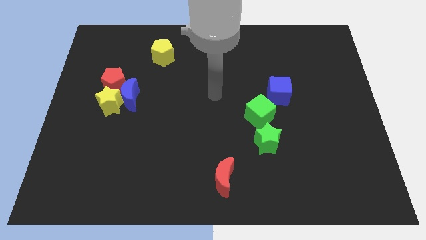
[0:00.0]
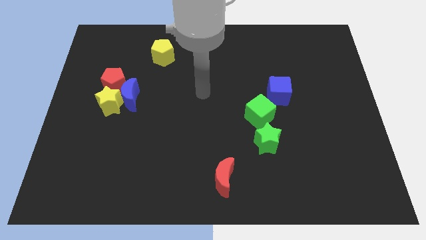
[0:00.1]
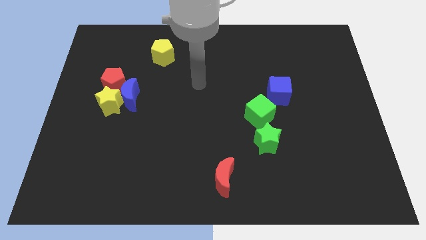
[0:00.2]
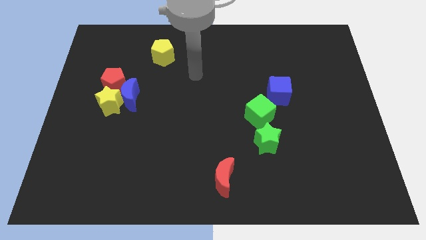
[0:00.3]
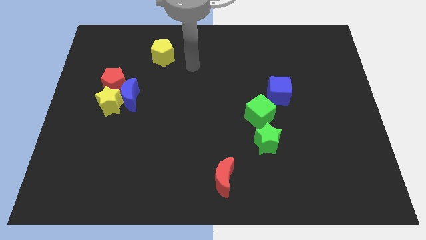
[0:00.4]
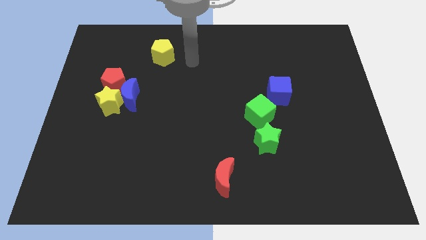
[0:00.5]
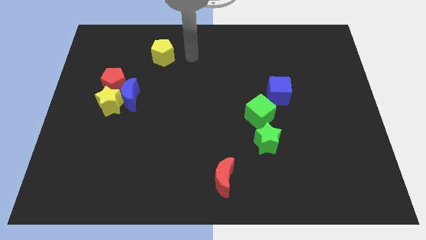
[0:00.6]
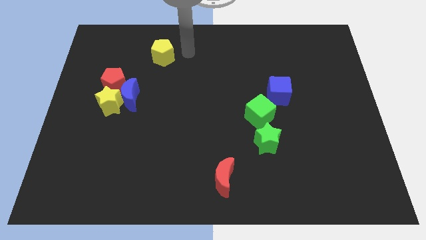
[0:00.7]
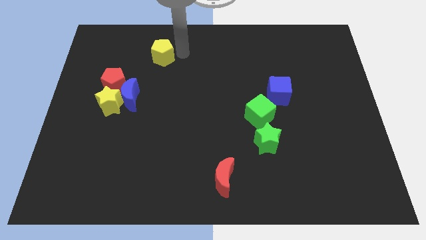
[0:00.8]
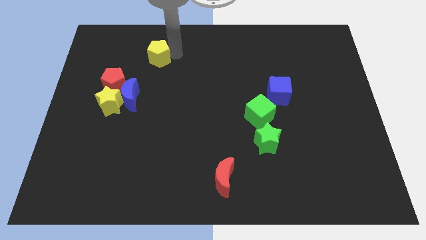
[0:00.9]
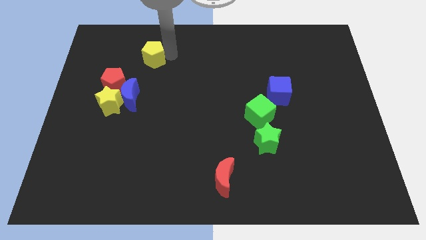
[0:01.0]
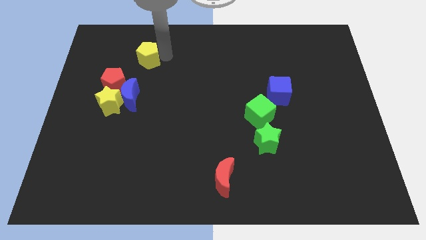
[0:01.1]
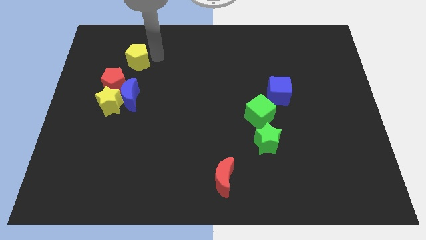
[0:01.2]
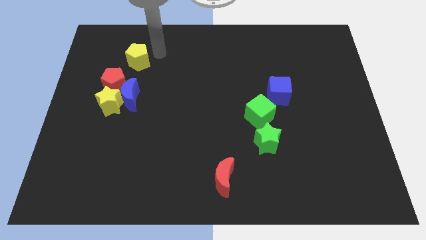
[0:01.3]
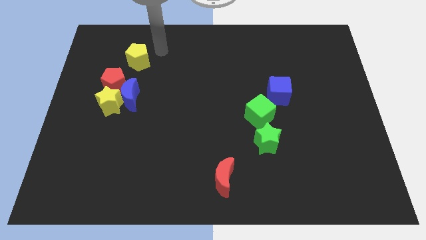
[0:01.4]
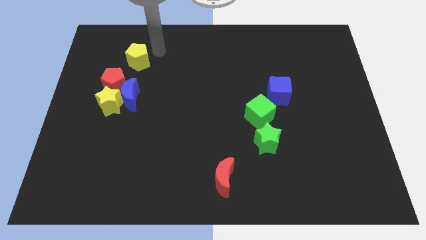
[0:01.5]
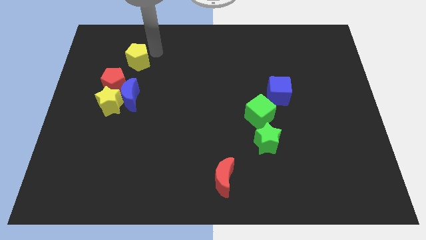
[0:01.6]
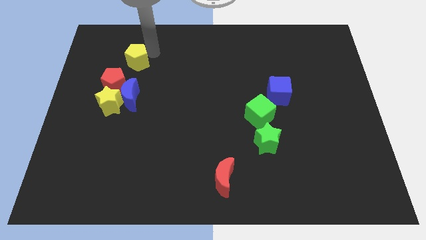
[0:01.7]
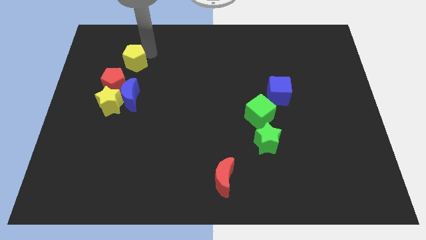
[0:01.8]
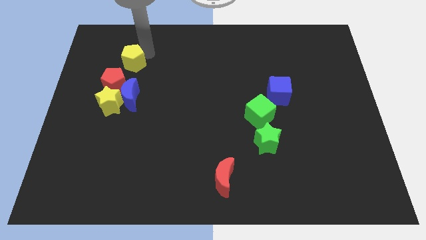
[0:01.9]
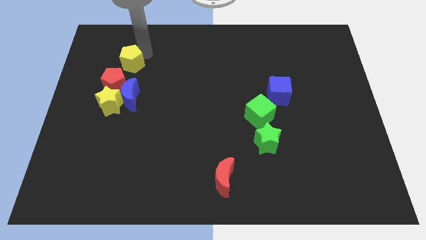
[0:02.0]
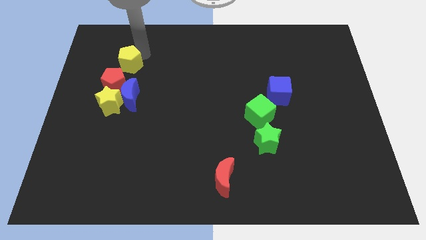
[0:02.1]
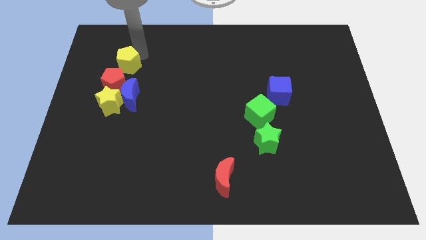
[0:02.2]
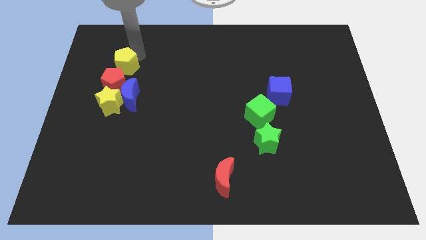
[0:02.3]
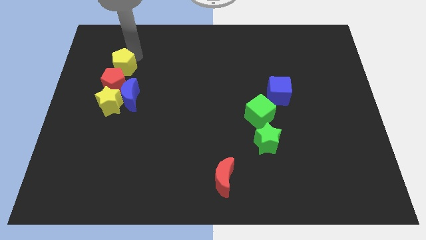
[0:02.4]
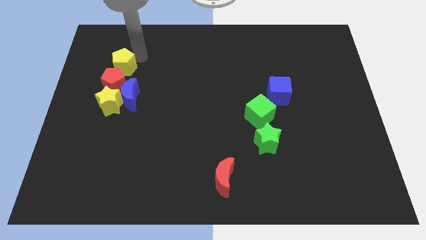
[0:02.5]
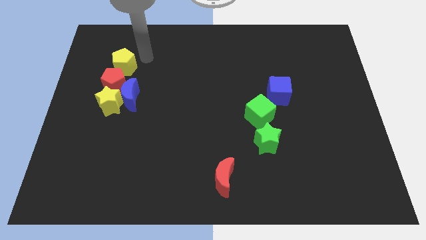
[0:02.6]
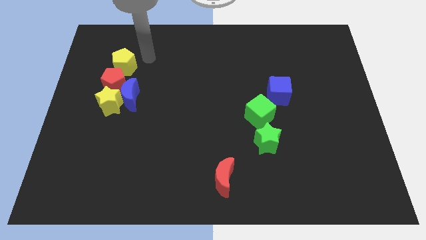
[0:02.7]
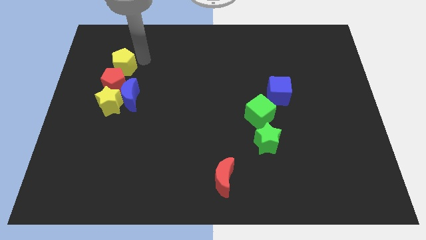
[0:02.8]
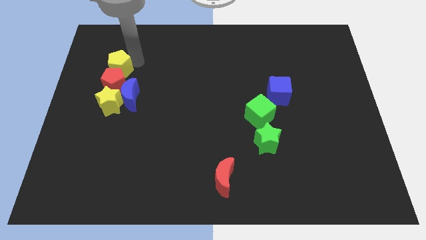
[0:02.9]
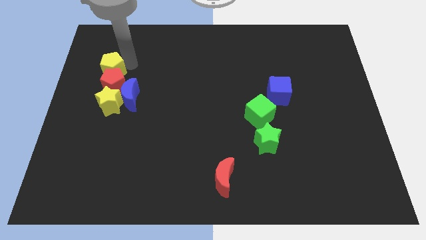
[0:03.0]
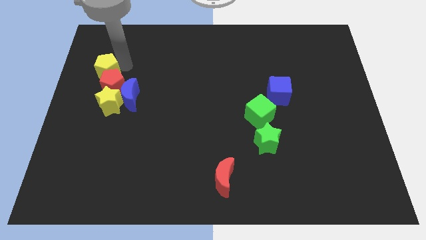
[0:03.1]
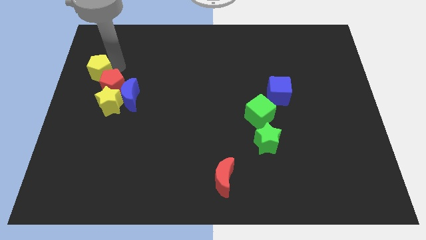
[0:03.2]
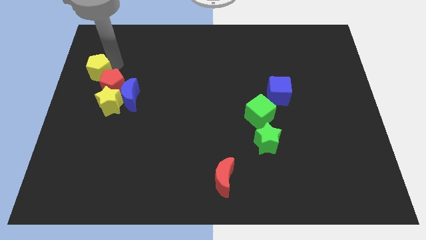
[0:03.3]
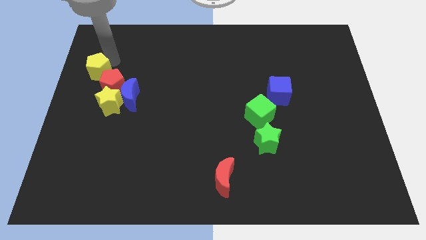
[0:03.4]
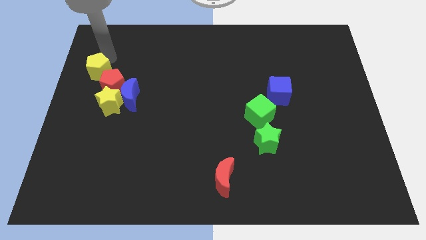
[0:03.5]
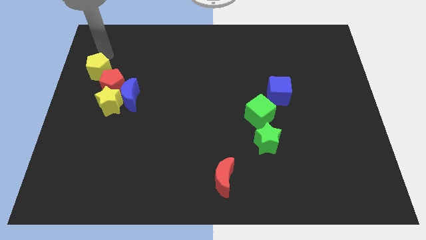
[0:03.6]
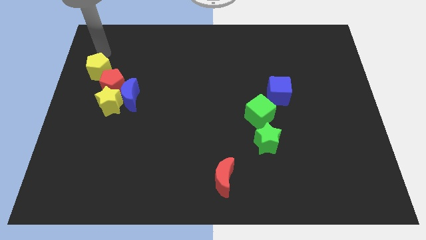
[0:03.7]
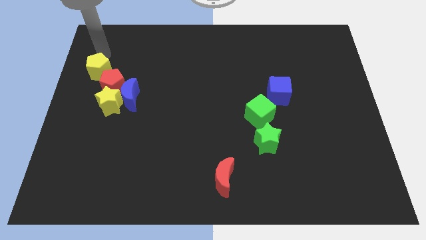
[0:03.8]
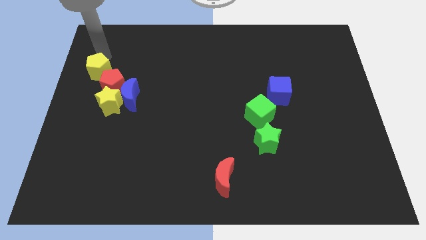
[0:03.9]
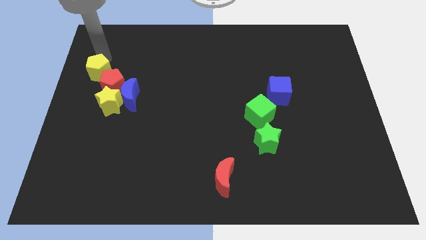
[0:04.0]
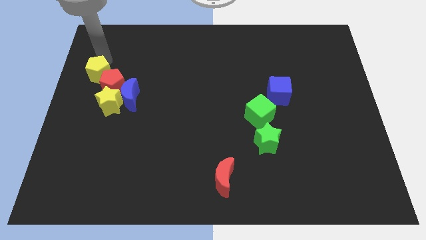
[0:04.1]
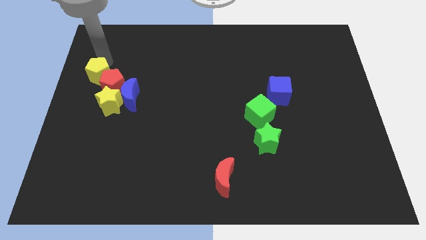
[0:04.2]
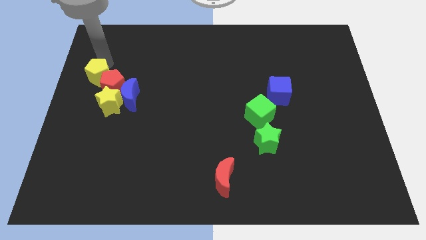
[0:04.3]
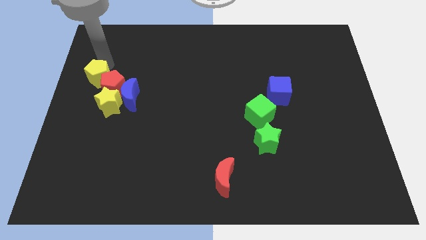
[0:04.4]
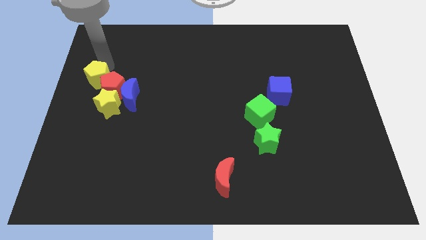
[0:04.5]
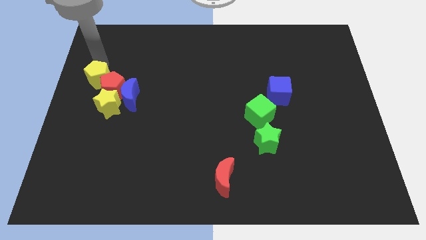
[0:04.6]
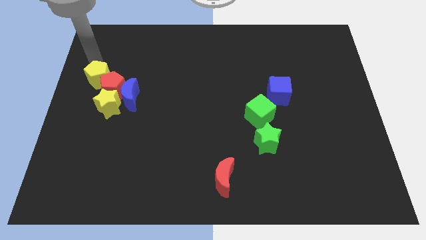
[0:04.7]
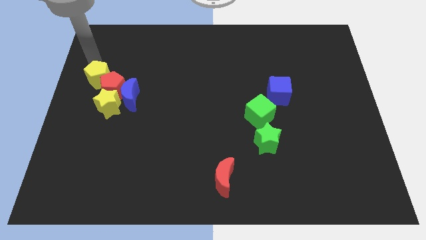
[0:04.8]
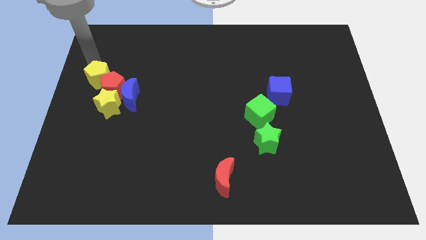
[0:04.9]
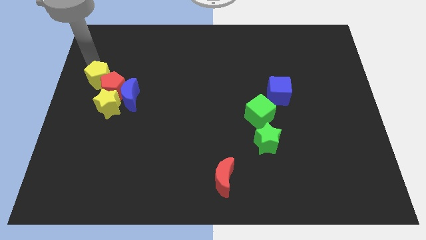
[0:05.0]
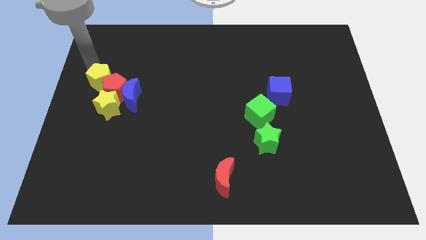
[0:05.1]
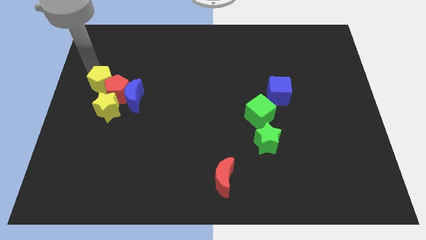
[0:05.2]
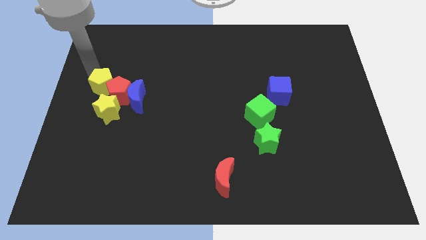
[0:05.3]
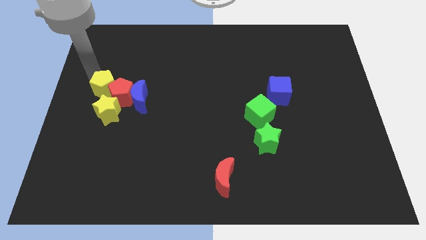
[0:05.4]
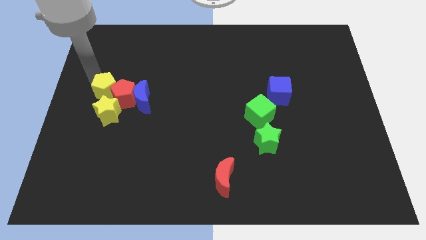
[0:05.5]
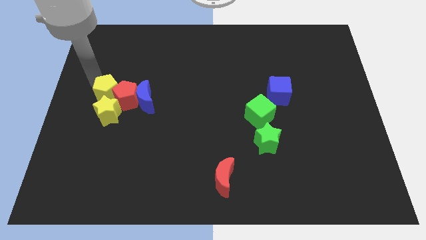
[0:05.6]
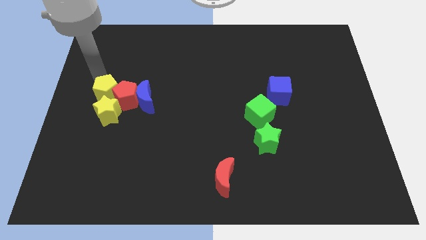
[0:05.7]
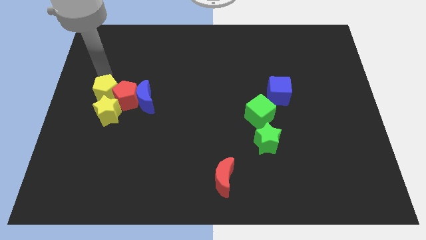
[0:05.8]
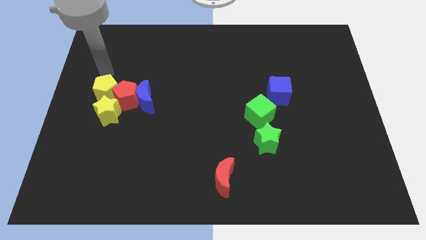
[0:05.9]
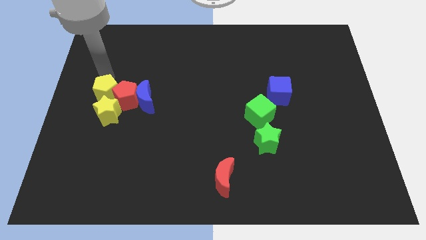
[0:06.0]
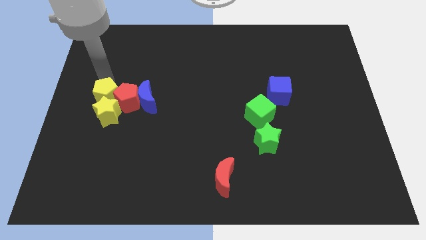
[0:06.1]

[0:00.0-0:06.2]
move the yellow pentagon next to the yellow star
